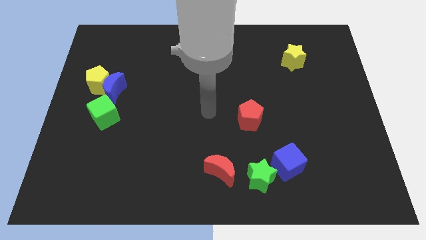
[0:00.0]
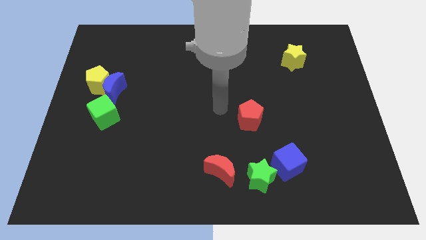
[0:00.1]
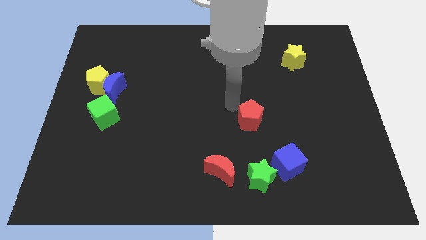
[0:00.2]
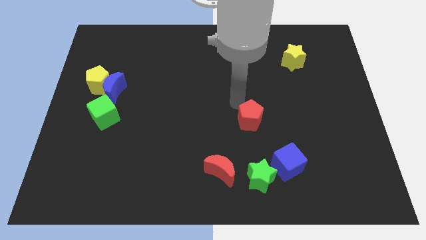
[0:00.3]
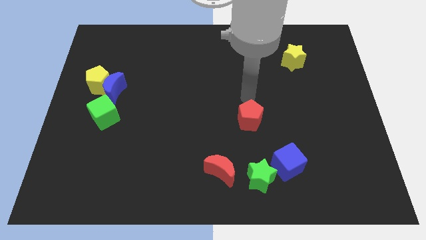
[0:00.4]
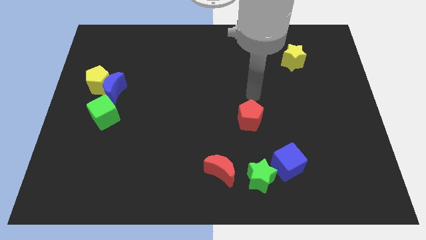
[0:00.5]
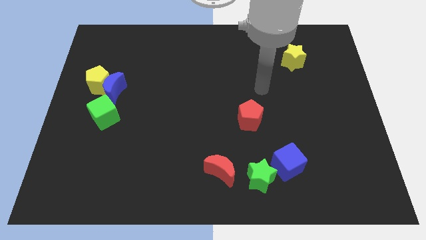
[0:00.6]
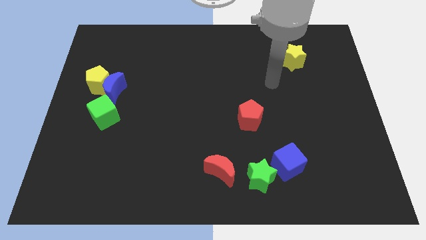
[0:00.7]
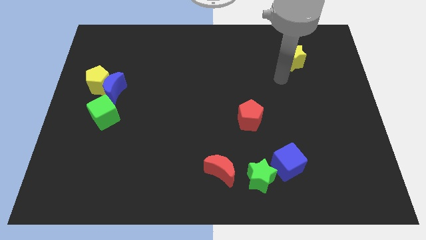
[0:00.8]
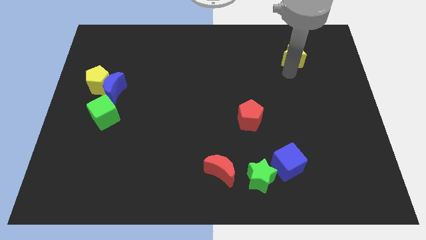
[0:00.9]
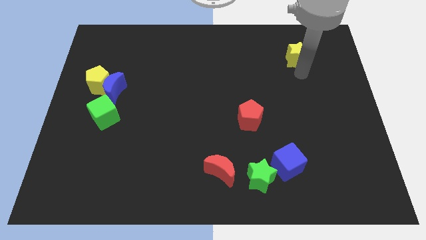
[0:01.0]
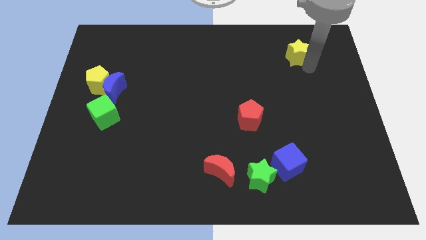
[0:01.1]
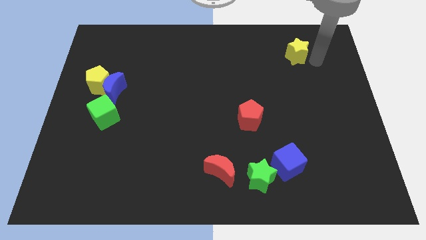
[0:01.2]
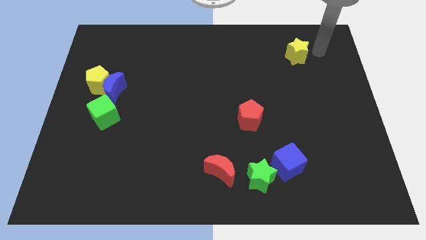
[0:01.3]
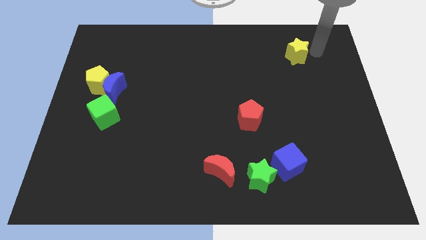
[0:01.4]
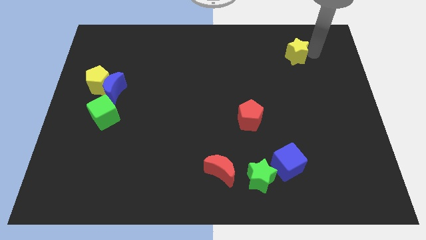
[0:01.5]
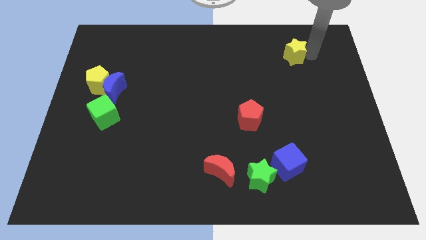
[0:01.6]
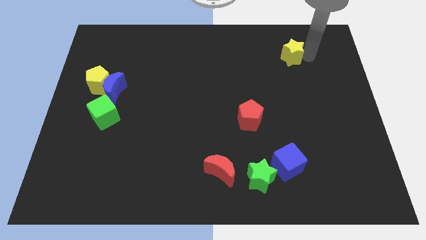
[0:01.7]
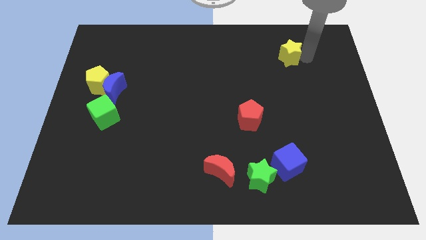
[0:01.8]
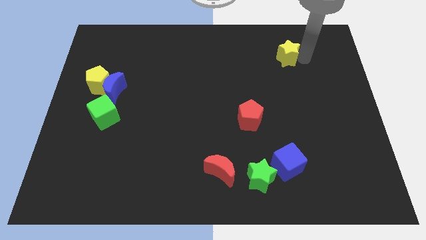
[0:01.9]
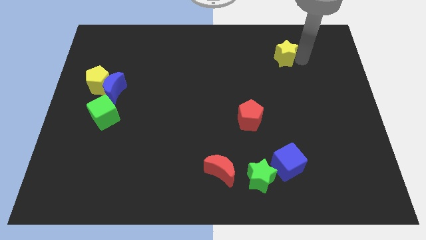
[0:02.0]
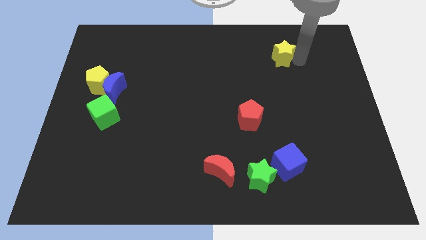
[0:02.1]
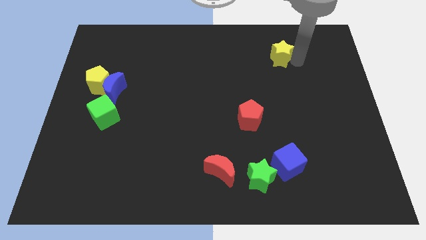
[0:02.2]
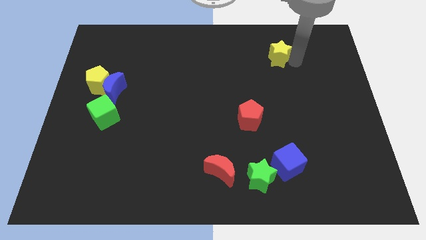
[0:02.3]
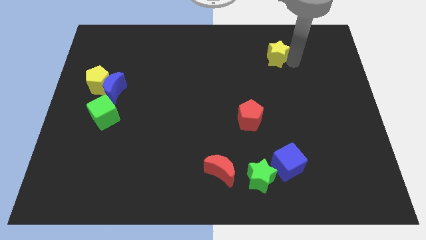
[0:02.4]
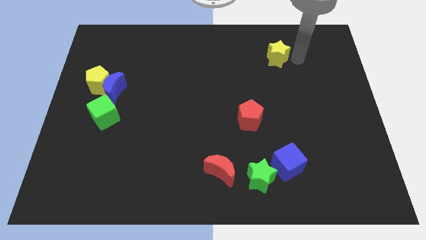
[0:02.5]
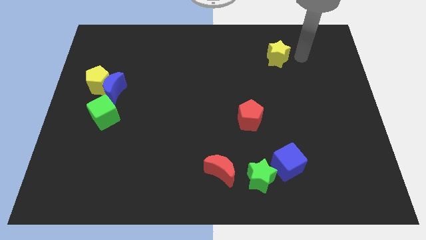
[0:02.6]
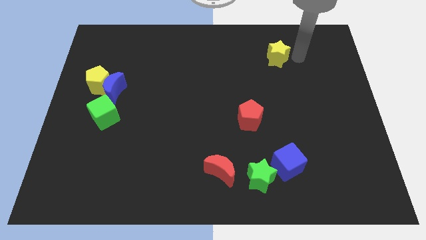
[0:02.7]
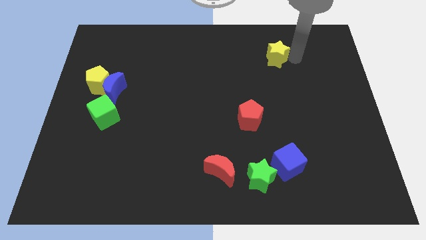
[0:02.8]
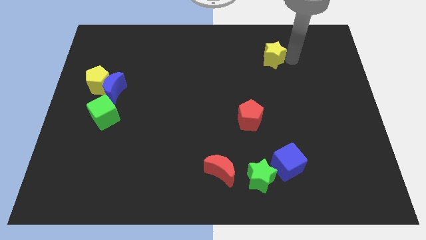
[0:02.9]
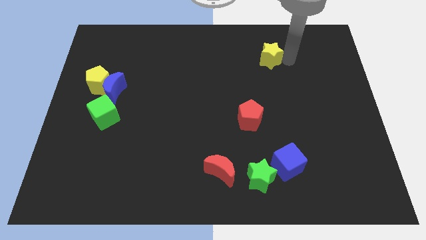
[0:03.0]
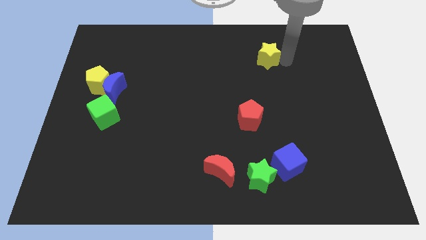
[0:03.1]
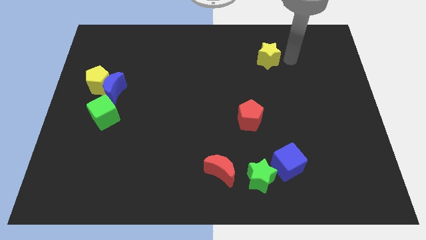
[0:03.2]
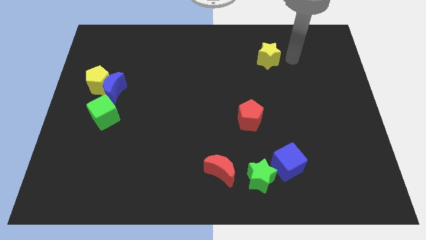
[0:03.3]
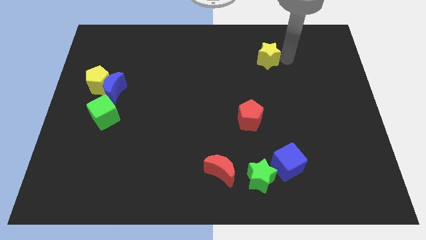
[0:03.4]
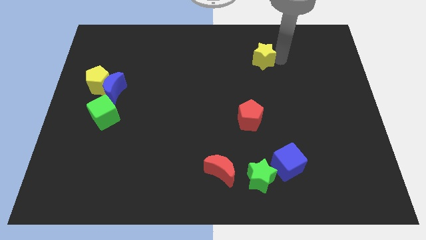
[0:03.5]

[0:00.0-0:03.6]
push the yellow star slightly left

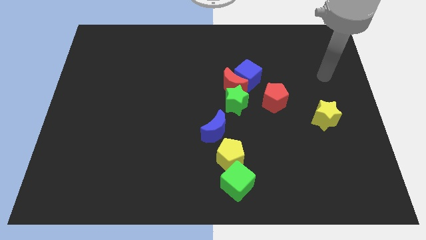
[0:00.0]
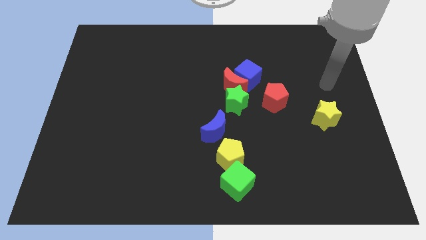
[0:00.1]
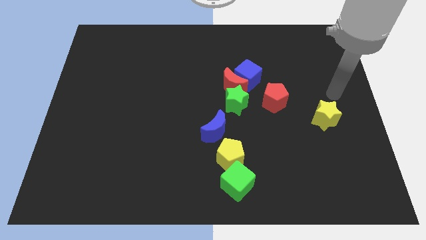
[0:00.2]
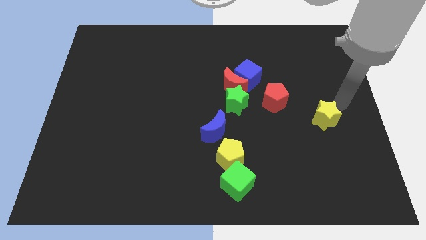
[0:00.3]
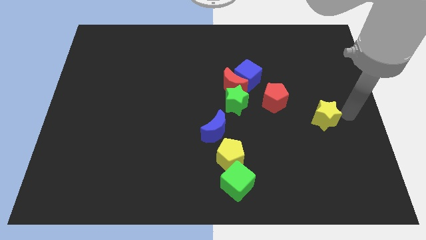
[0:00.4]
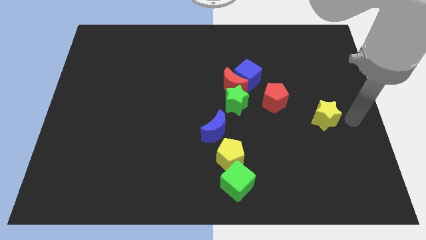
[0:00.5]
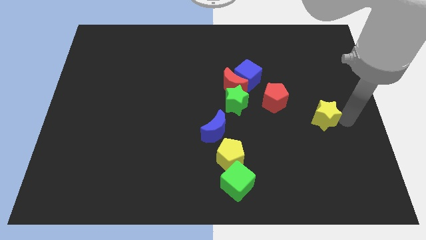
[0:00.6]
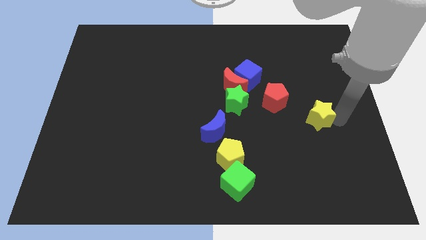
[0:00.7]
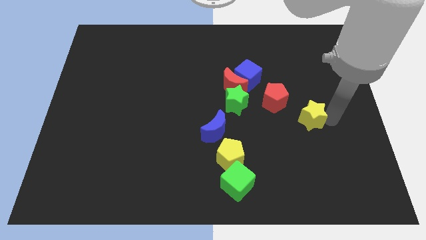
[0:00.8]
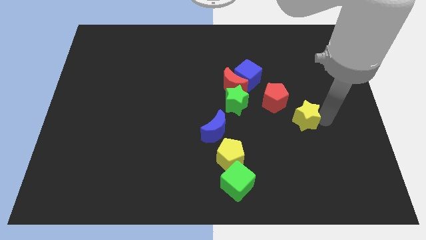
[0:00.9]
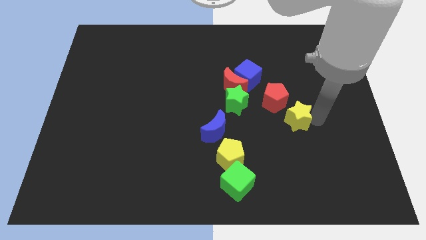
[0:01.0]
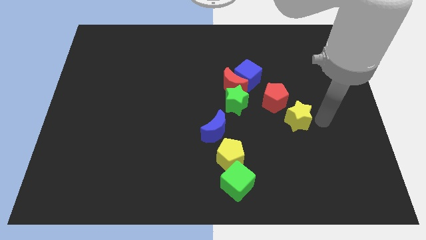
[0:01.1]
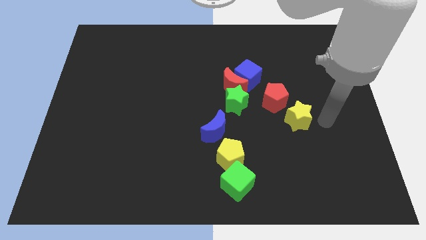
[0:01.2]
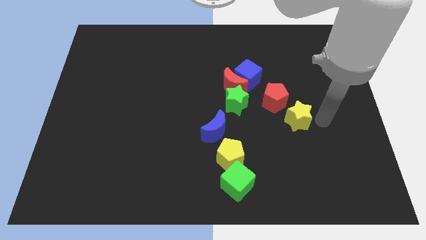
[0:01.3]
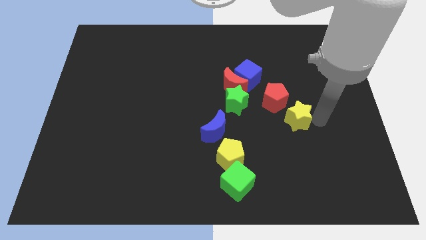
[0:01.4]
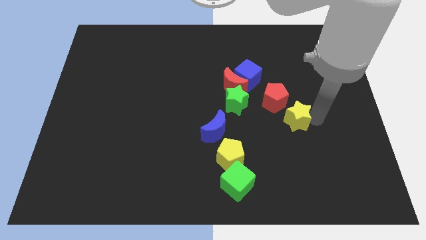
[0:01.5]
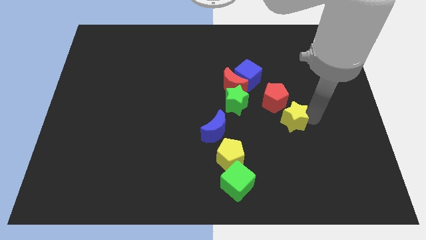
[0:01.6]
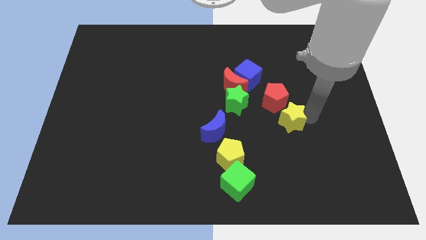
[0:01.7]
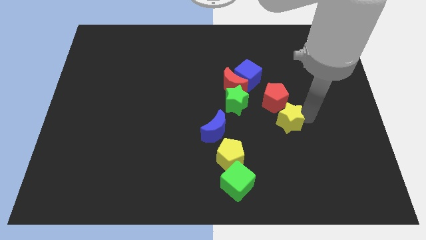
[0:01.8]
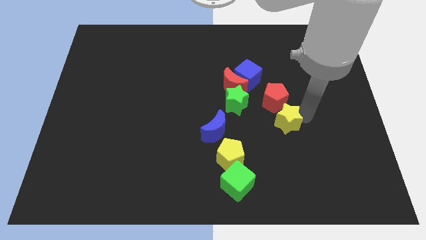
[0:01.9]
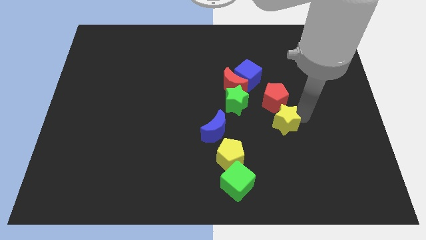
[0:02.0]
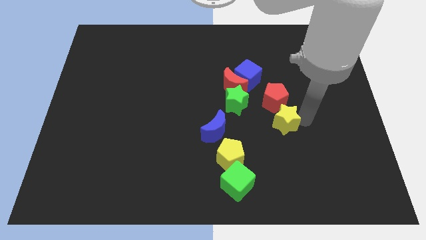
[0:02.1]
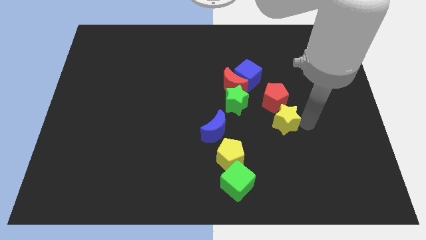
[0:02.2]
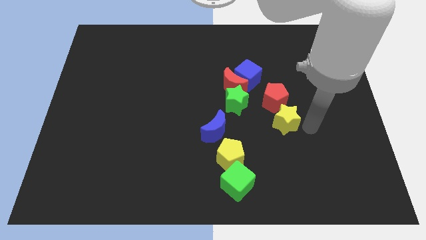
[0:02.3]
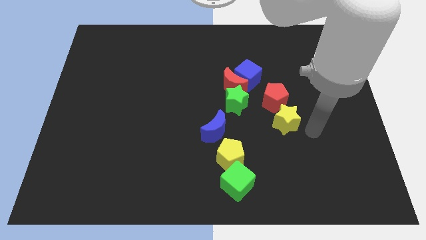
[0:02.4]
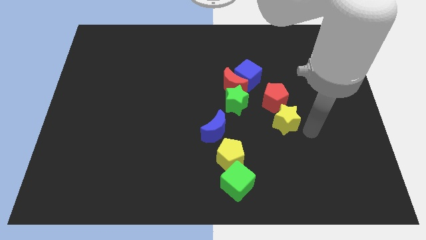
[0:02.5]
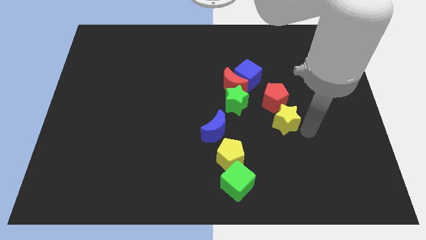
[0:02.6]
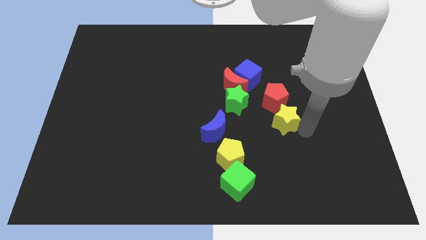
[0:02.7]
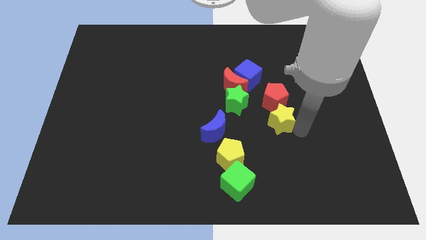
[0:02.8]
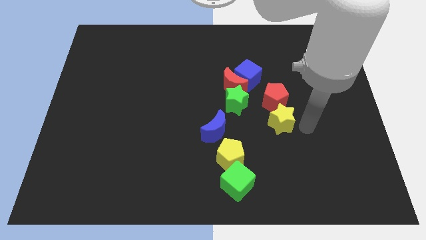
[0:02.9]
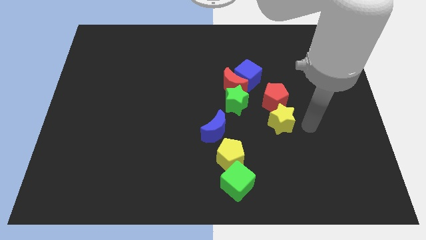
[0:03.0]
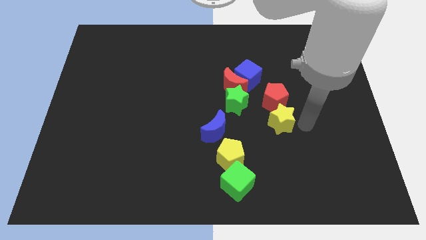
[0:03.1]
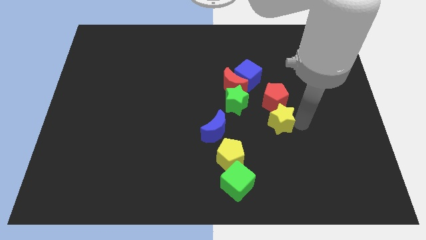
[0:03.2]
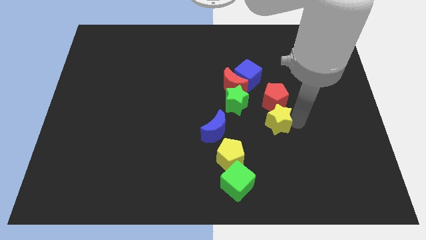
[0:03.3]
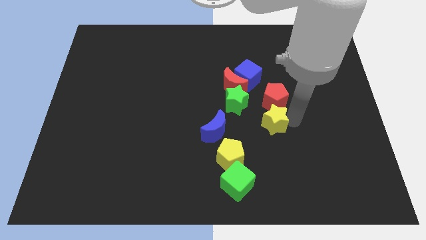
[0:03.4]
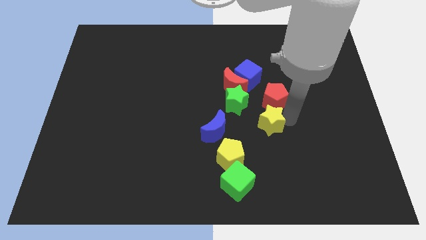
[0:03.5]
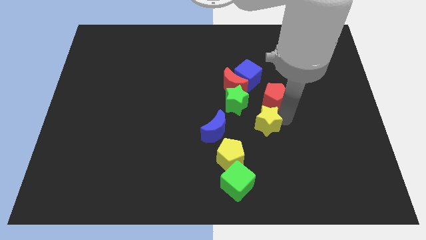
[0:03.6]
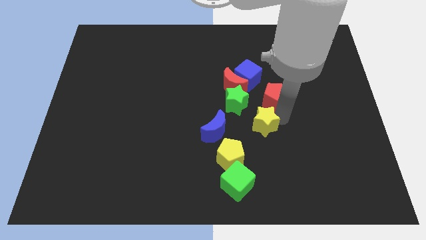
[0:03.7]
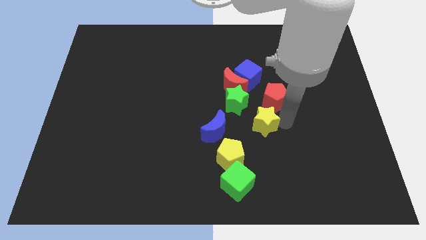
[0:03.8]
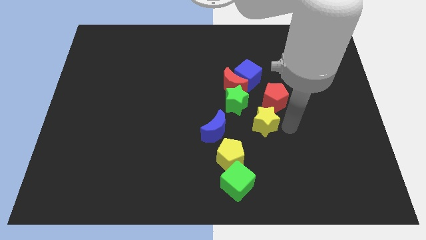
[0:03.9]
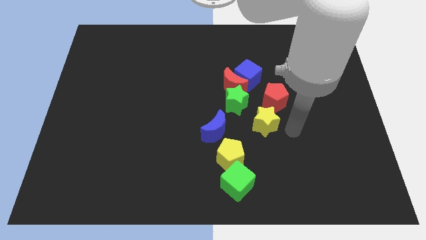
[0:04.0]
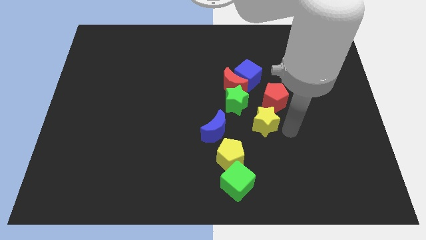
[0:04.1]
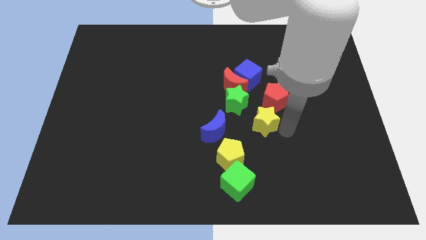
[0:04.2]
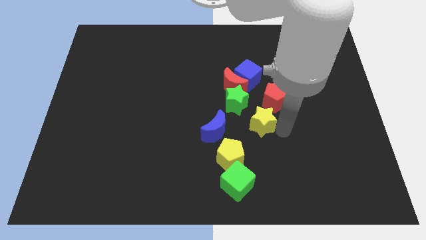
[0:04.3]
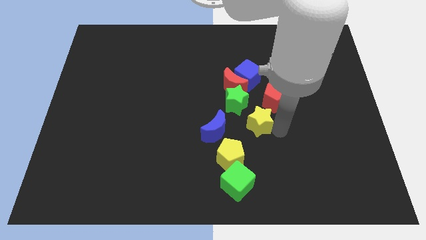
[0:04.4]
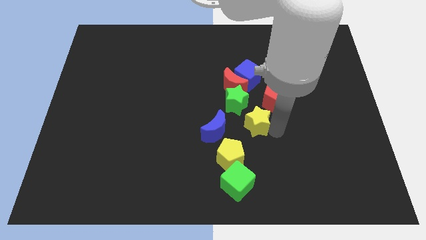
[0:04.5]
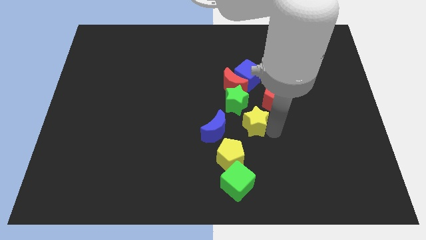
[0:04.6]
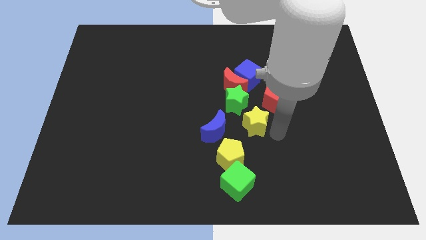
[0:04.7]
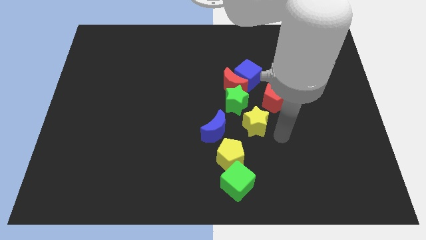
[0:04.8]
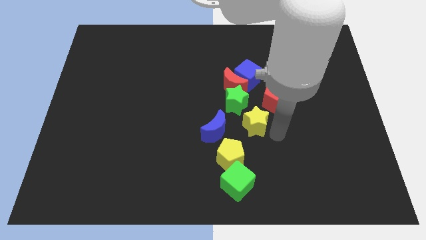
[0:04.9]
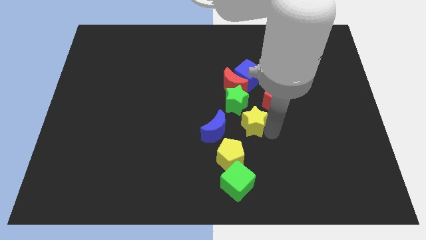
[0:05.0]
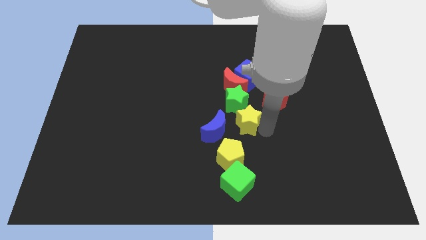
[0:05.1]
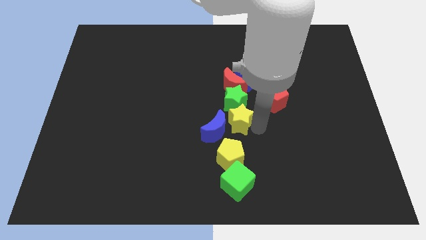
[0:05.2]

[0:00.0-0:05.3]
push the yellow star left
